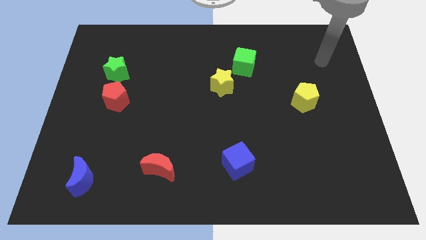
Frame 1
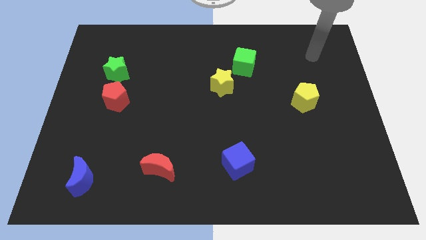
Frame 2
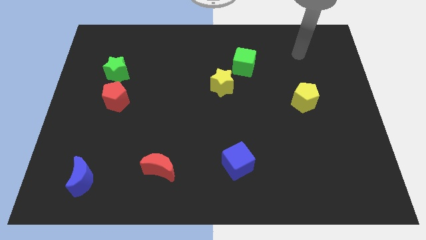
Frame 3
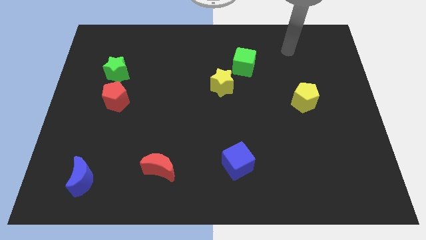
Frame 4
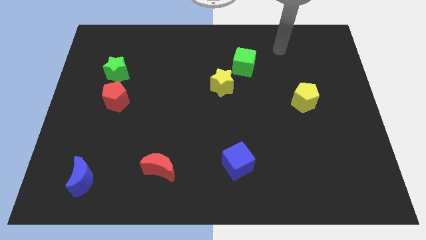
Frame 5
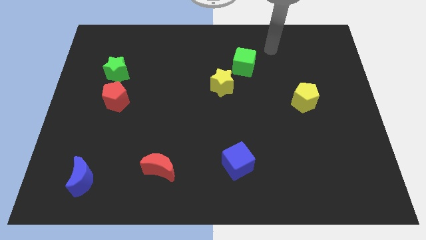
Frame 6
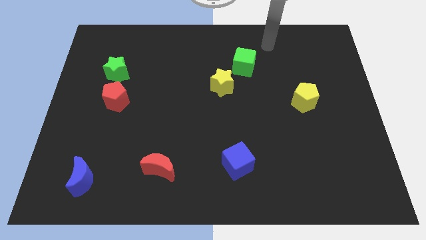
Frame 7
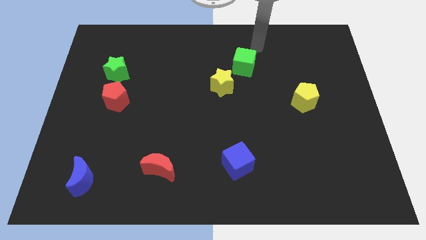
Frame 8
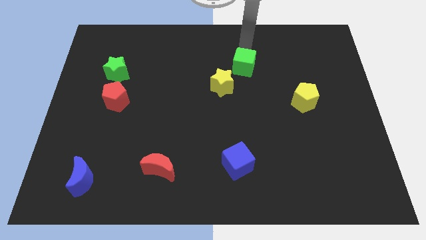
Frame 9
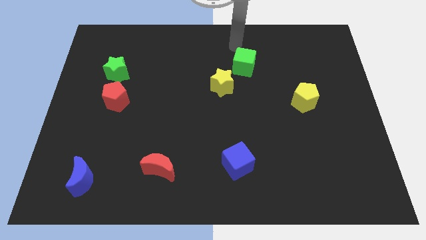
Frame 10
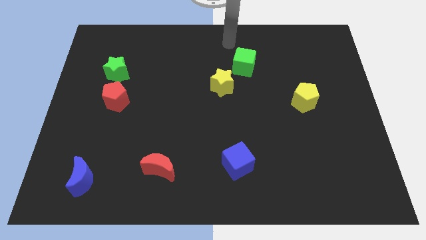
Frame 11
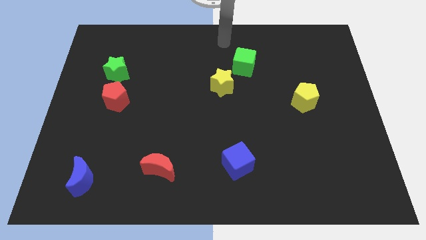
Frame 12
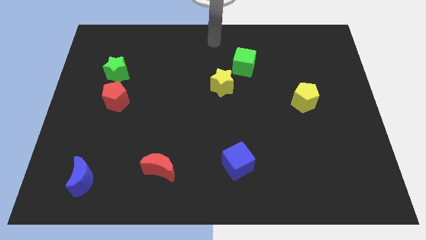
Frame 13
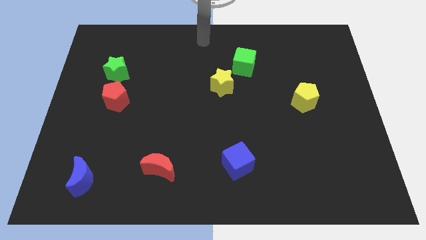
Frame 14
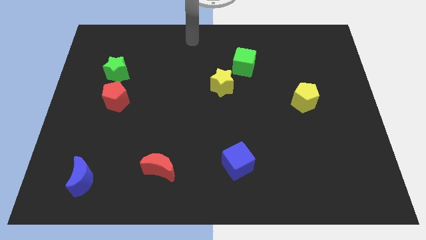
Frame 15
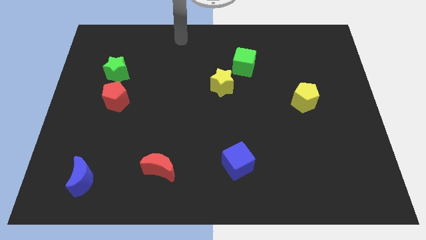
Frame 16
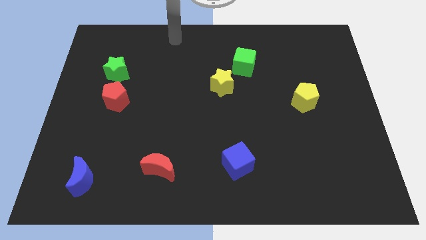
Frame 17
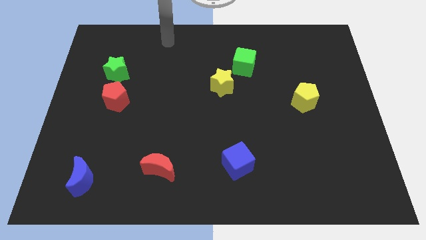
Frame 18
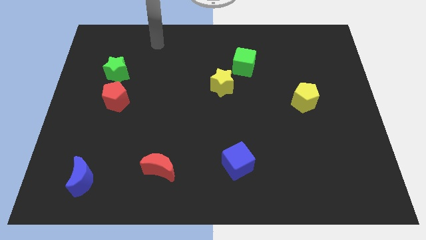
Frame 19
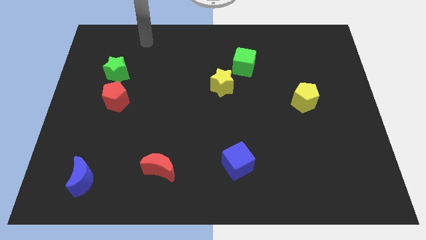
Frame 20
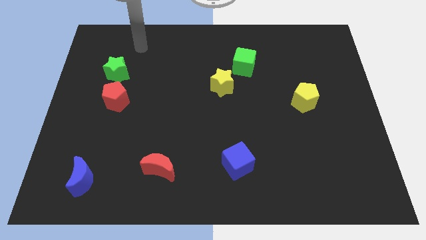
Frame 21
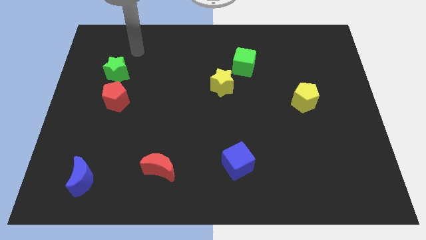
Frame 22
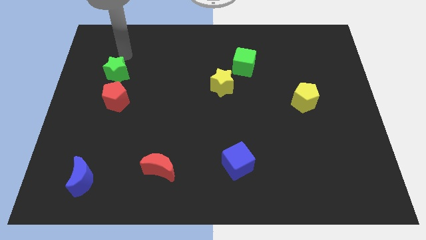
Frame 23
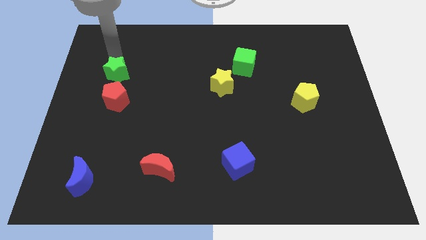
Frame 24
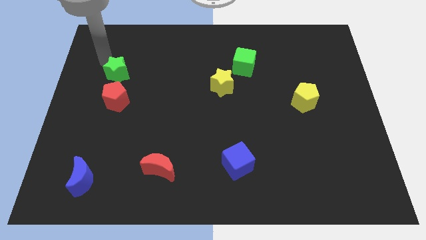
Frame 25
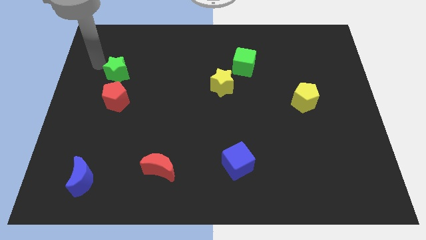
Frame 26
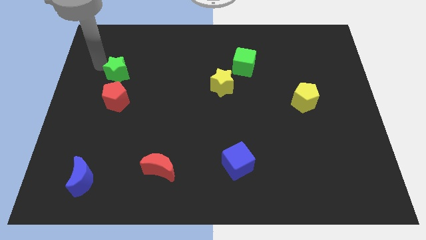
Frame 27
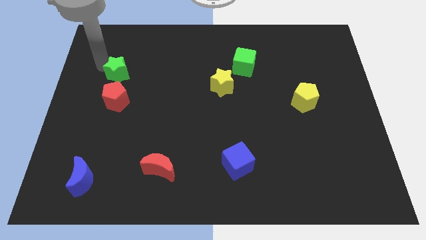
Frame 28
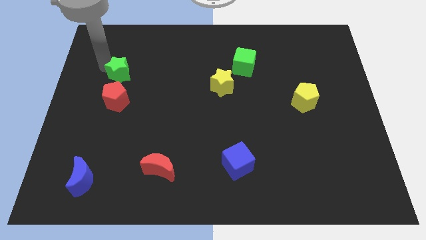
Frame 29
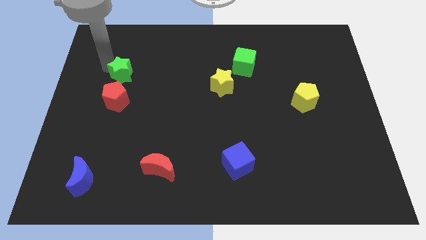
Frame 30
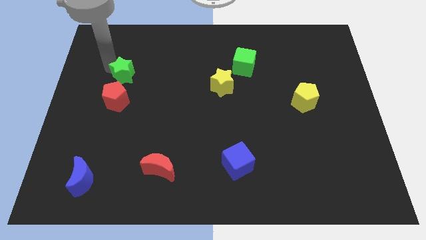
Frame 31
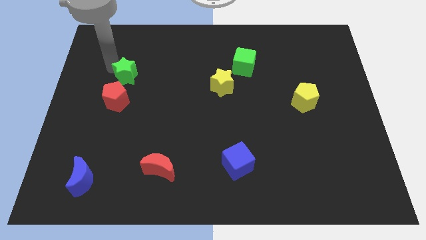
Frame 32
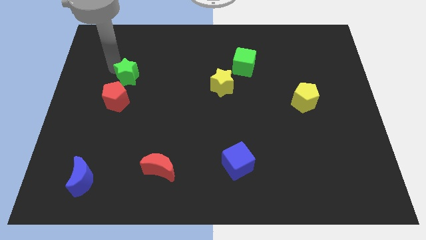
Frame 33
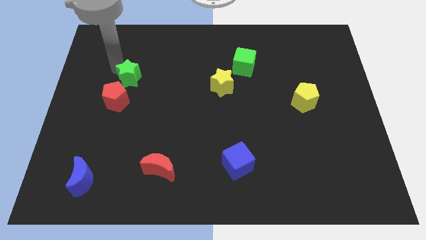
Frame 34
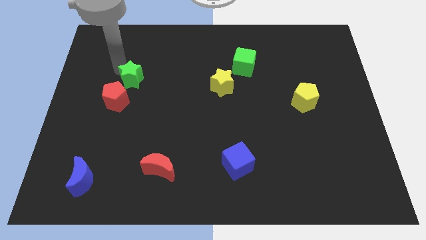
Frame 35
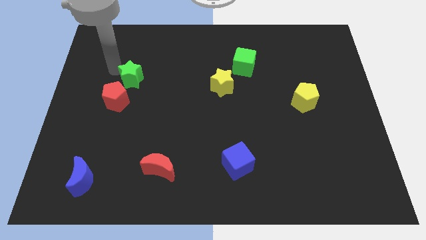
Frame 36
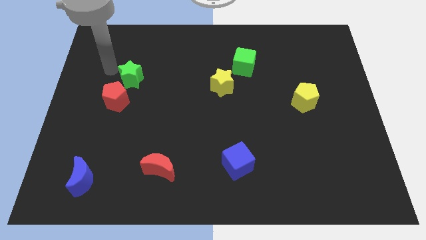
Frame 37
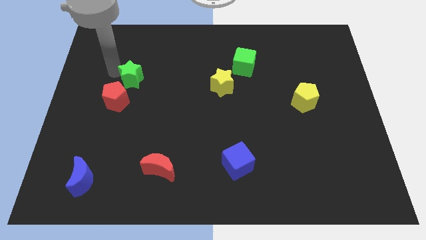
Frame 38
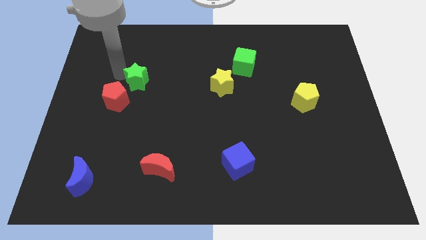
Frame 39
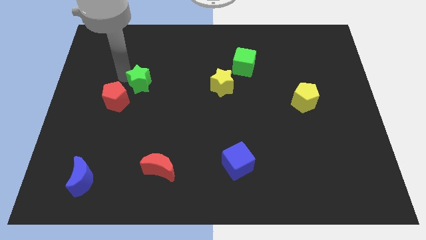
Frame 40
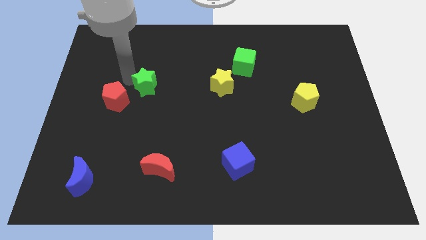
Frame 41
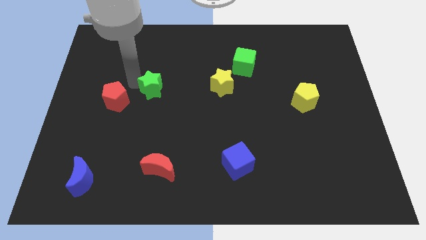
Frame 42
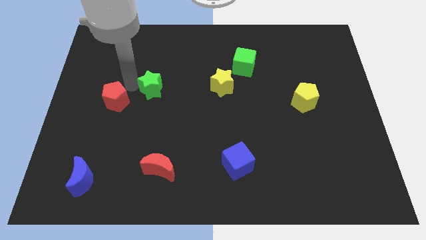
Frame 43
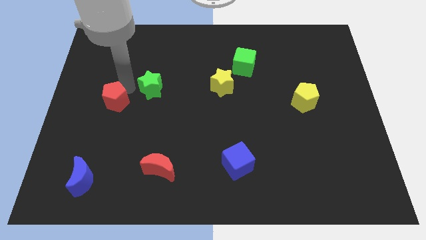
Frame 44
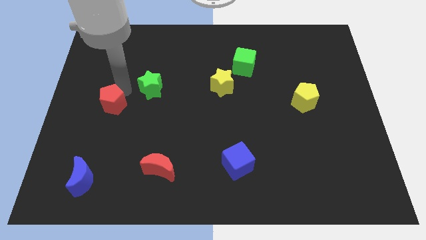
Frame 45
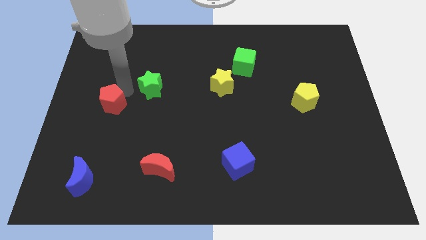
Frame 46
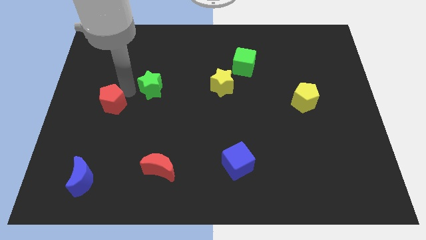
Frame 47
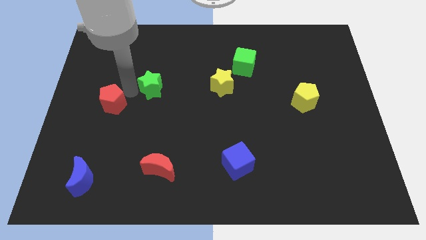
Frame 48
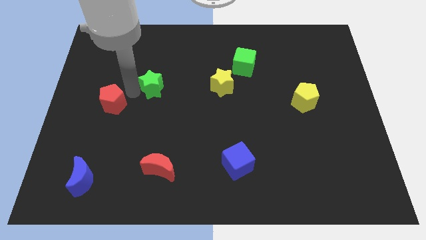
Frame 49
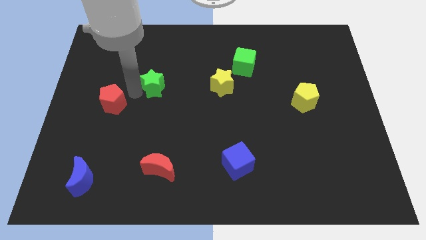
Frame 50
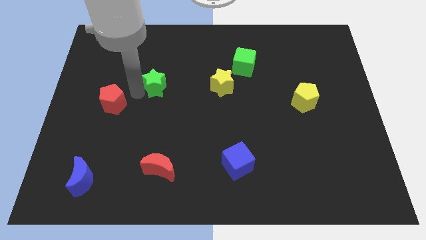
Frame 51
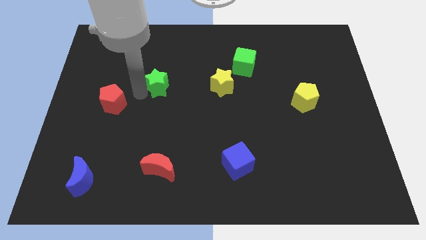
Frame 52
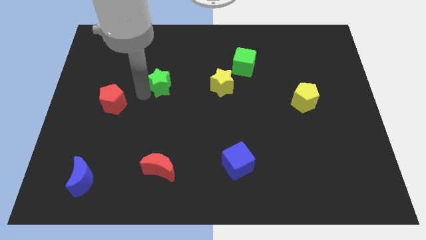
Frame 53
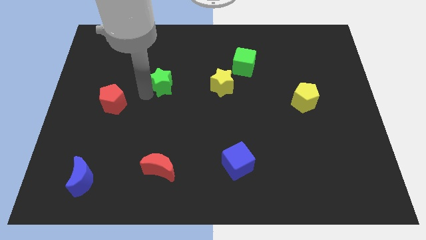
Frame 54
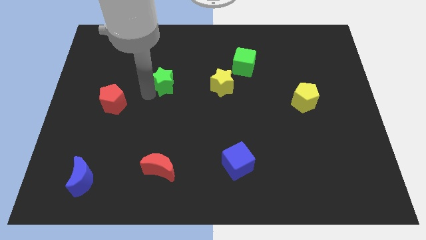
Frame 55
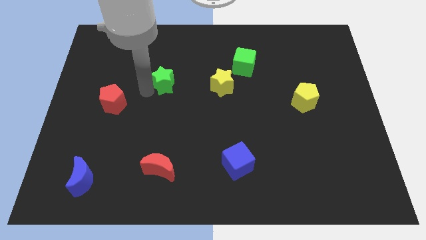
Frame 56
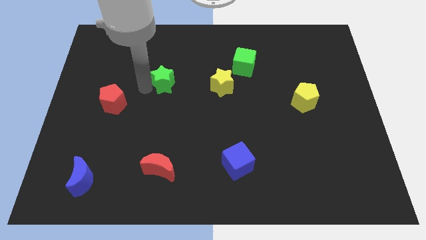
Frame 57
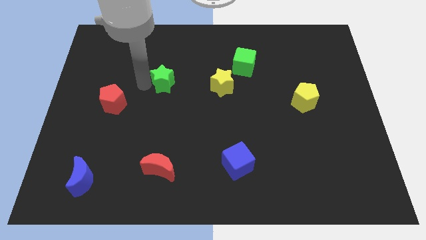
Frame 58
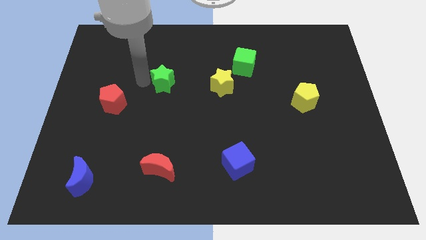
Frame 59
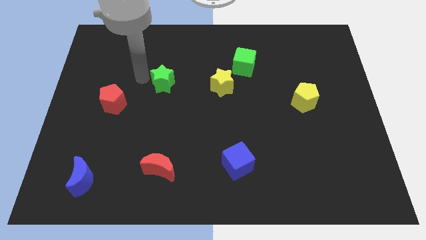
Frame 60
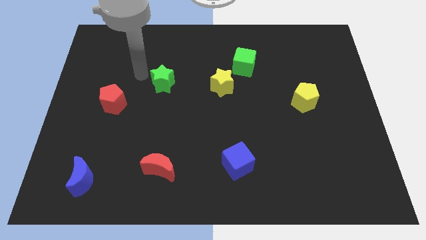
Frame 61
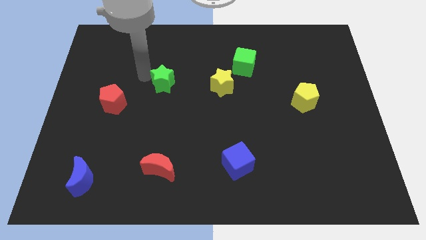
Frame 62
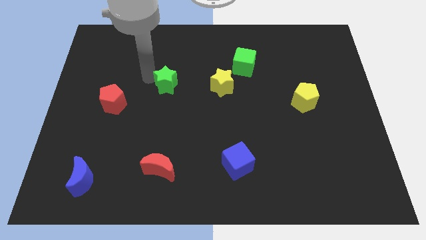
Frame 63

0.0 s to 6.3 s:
push the green star to the center of the board

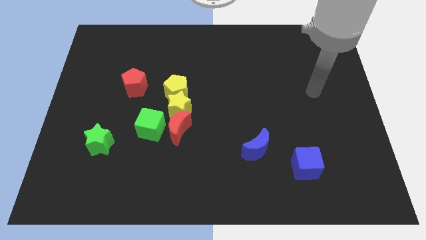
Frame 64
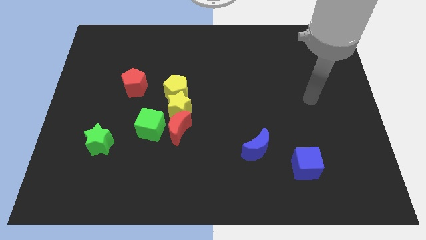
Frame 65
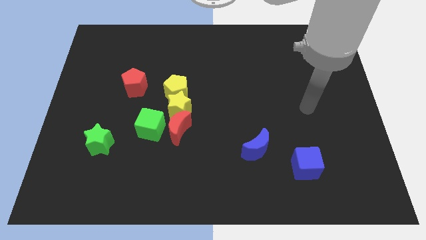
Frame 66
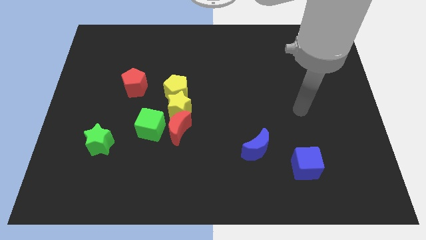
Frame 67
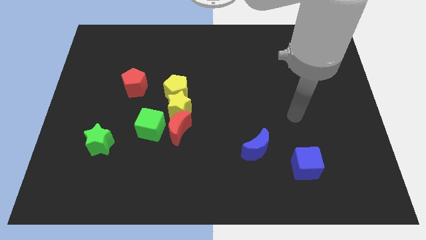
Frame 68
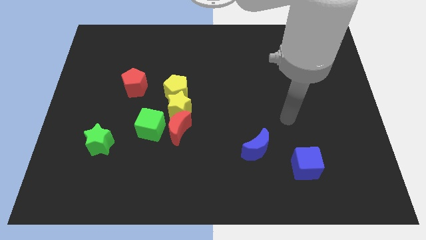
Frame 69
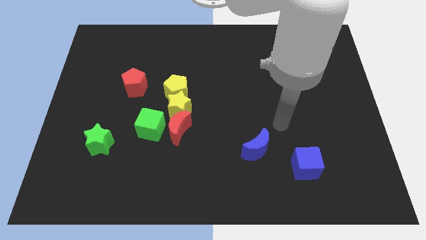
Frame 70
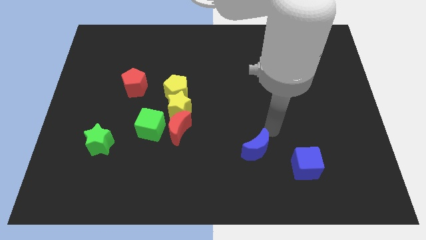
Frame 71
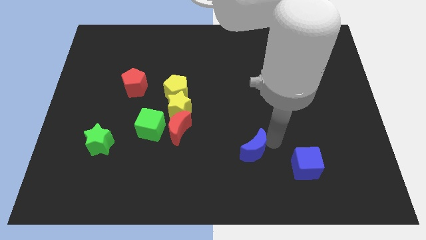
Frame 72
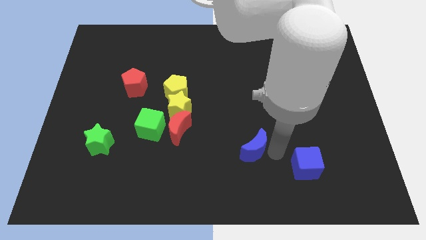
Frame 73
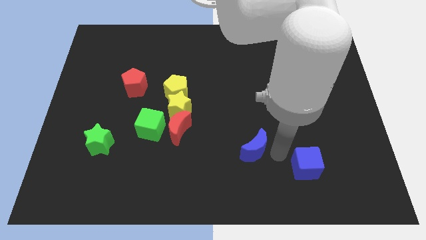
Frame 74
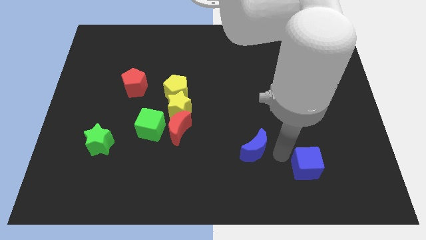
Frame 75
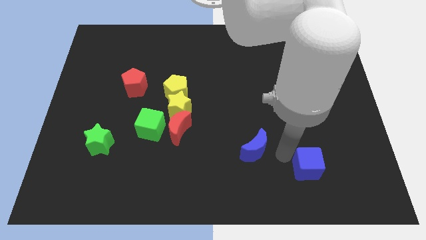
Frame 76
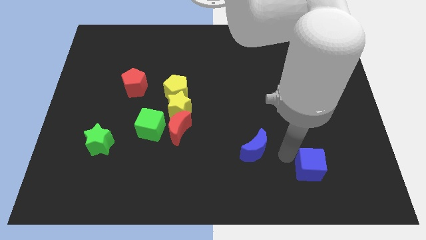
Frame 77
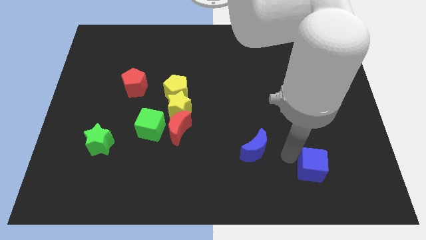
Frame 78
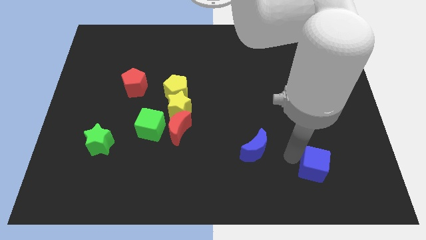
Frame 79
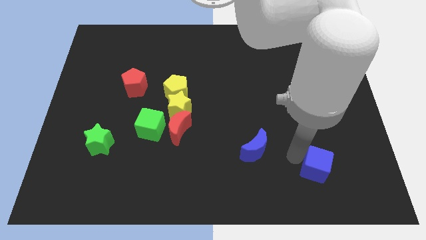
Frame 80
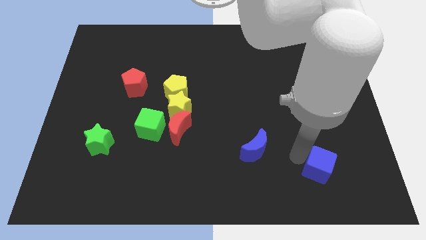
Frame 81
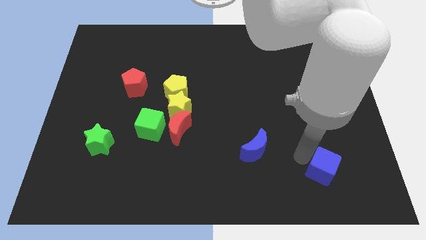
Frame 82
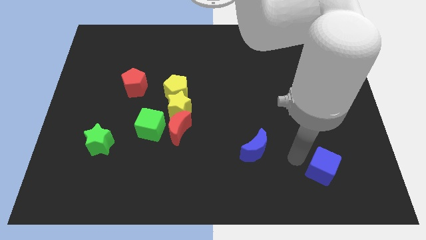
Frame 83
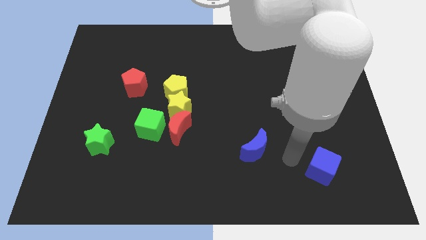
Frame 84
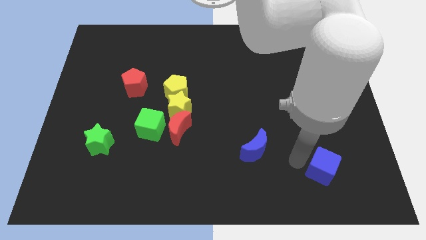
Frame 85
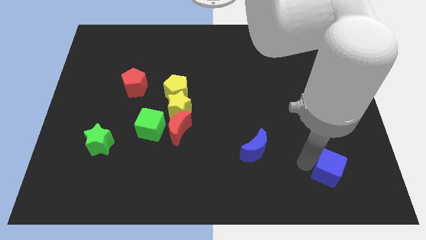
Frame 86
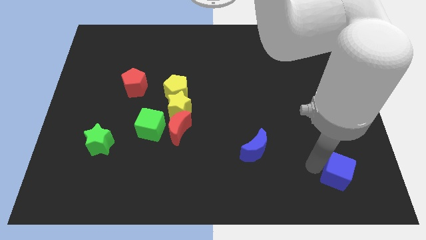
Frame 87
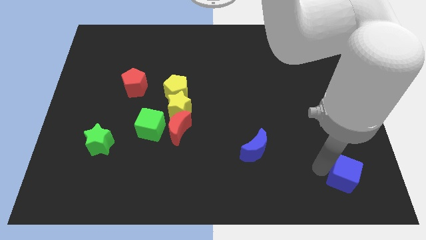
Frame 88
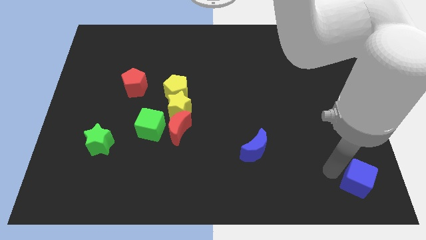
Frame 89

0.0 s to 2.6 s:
move the blue cube to the bottom right corner
